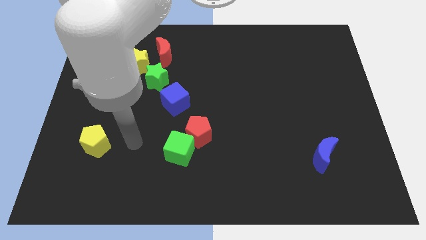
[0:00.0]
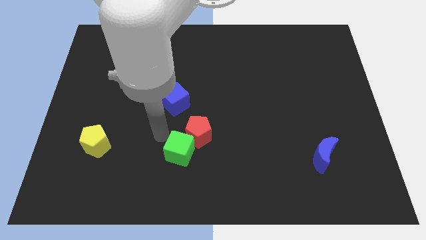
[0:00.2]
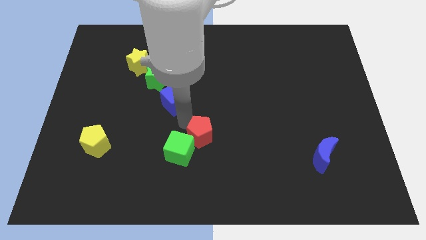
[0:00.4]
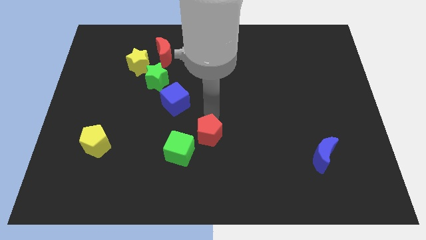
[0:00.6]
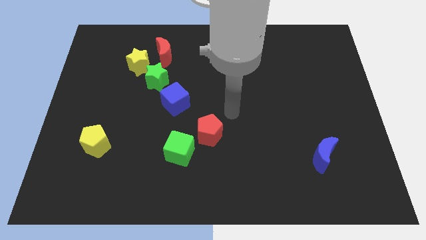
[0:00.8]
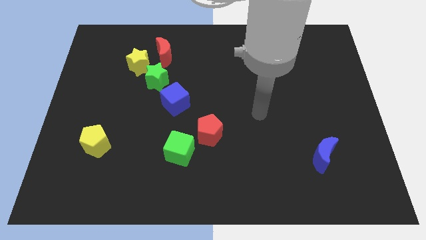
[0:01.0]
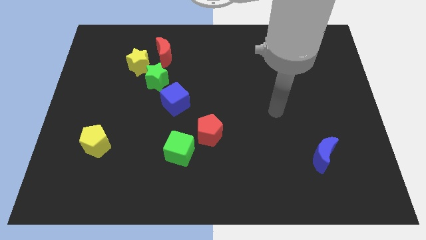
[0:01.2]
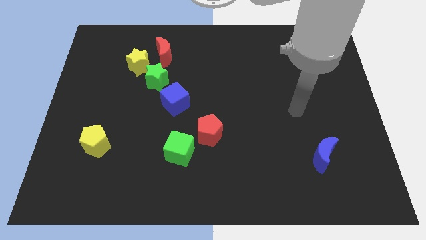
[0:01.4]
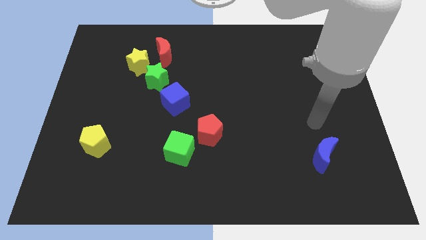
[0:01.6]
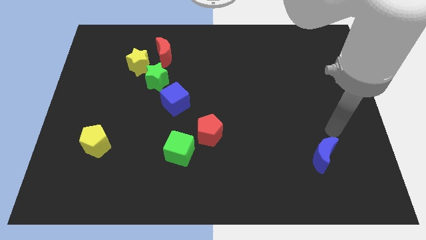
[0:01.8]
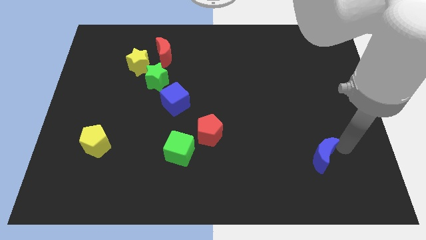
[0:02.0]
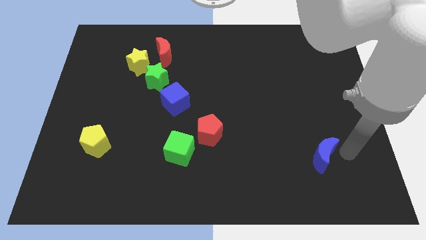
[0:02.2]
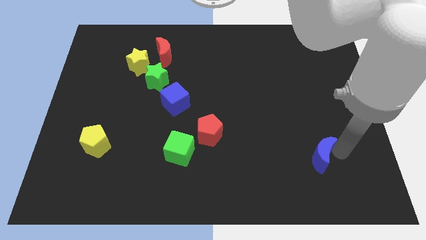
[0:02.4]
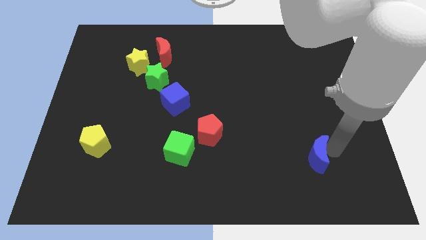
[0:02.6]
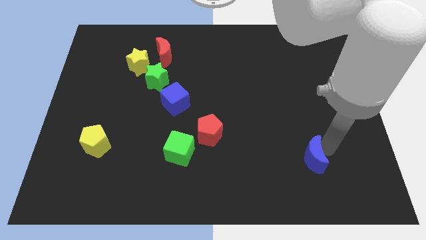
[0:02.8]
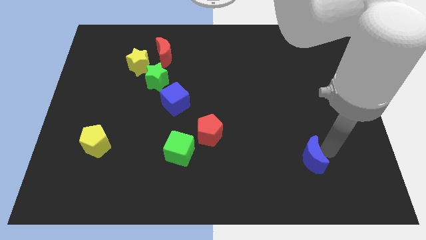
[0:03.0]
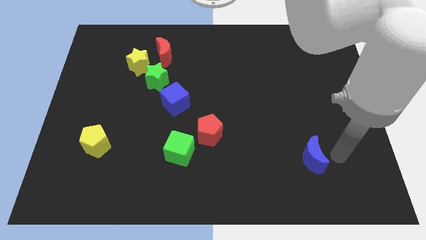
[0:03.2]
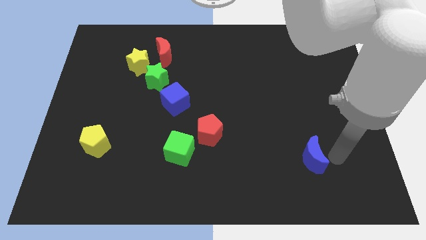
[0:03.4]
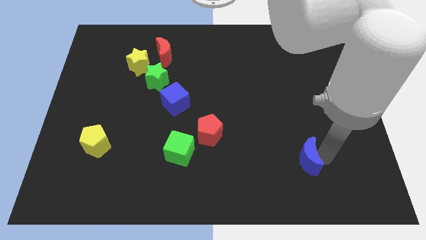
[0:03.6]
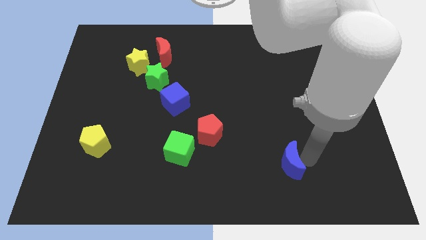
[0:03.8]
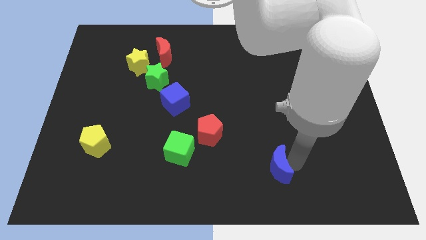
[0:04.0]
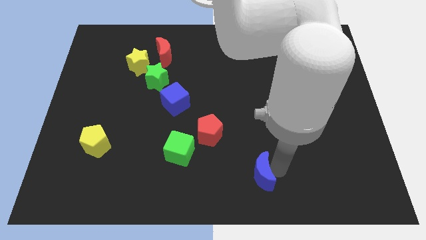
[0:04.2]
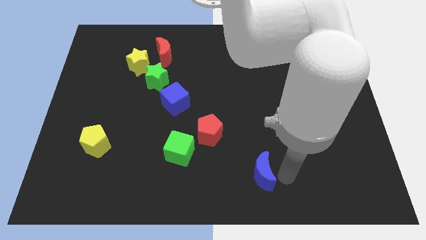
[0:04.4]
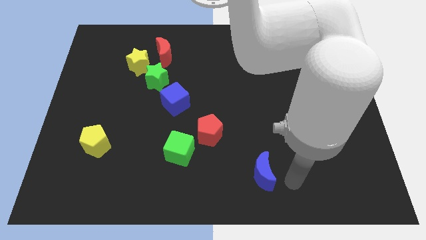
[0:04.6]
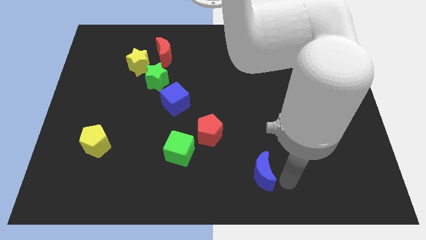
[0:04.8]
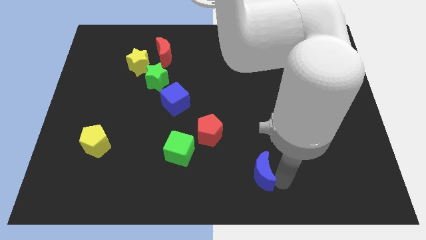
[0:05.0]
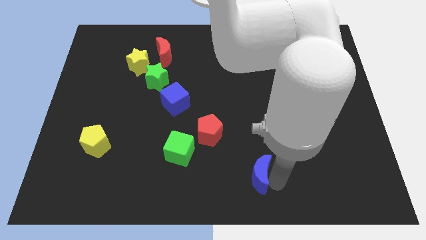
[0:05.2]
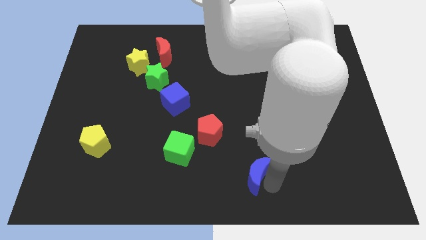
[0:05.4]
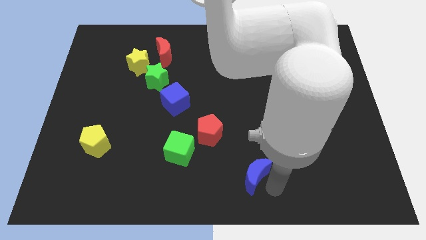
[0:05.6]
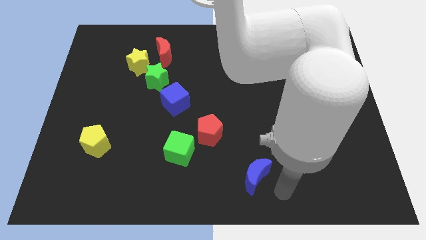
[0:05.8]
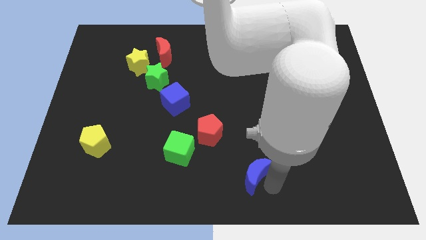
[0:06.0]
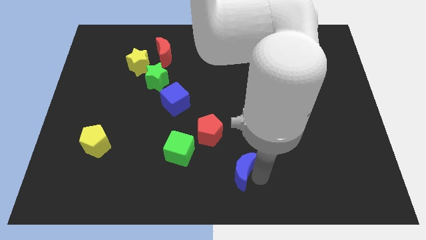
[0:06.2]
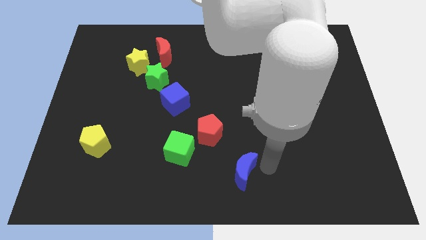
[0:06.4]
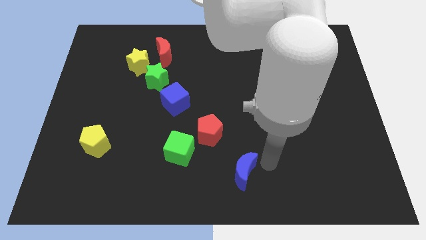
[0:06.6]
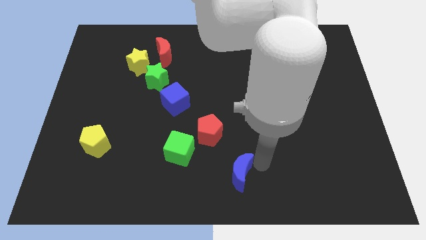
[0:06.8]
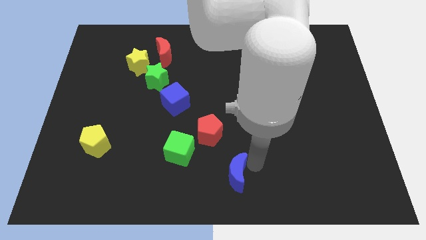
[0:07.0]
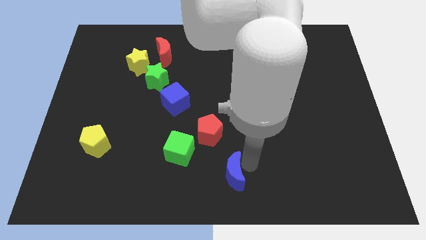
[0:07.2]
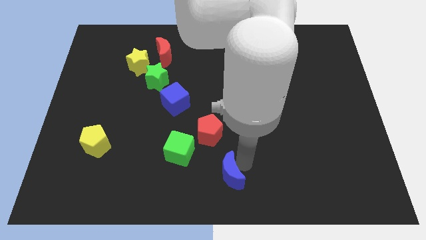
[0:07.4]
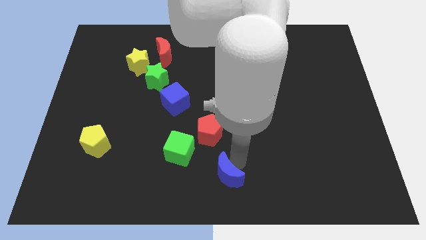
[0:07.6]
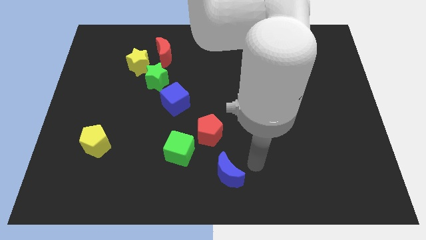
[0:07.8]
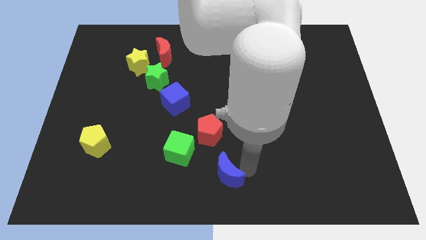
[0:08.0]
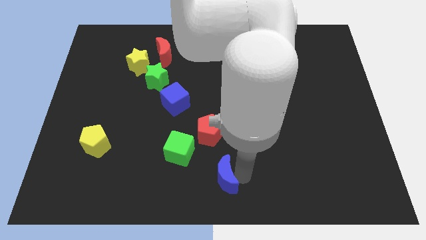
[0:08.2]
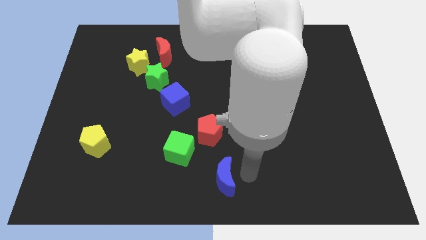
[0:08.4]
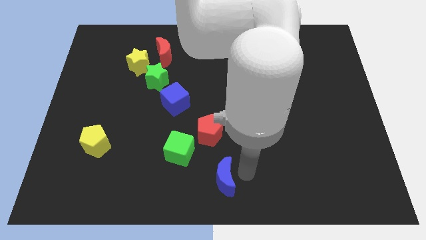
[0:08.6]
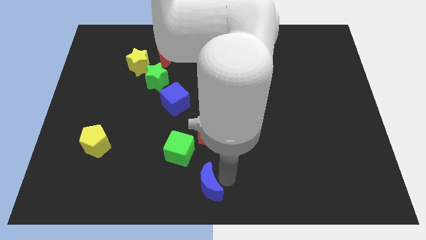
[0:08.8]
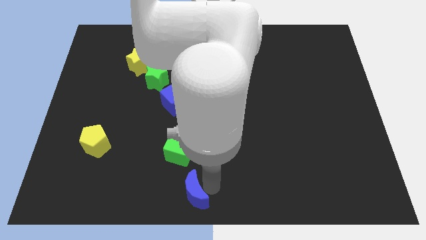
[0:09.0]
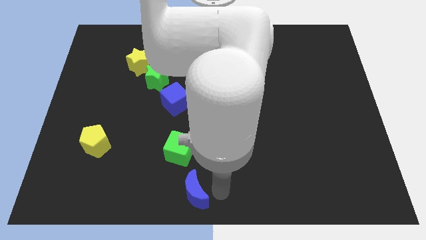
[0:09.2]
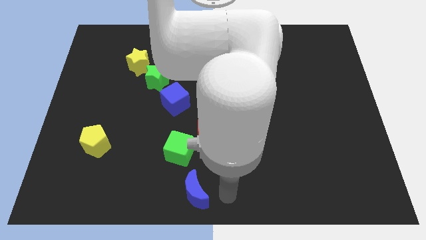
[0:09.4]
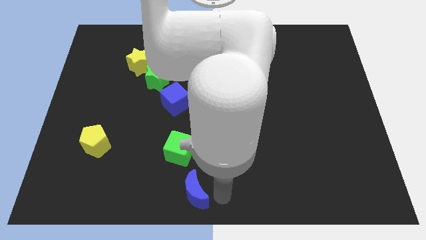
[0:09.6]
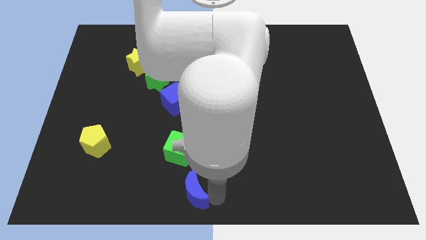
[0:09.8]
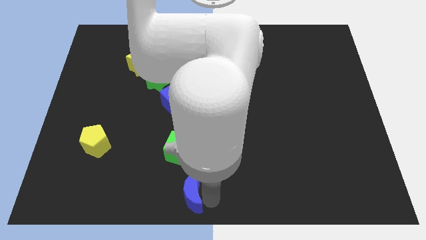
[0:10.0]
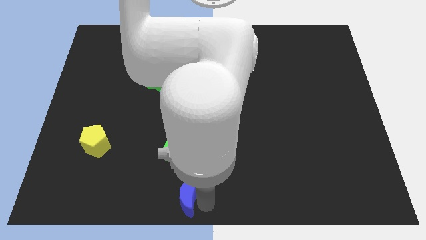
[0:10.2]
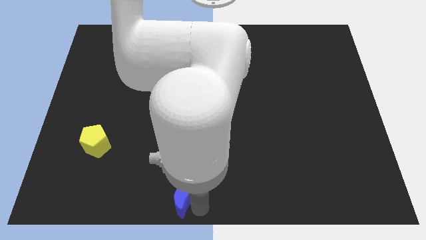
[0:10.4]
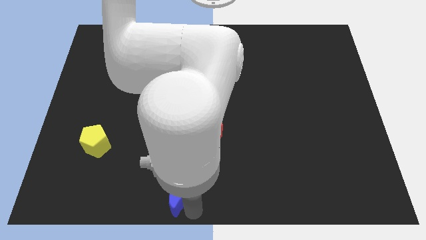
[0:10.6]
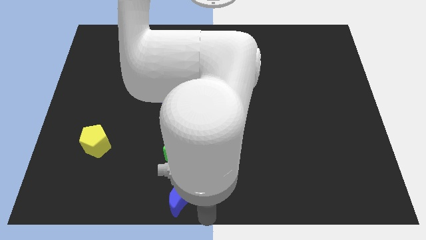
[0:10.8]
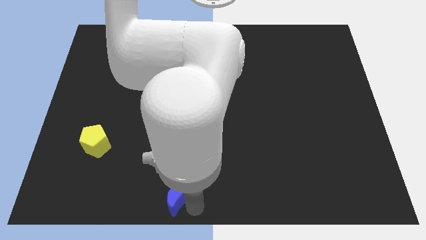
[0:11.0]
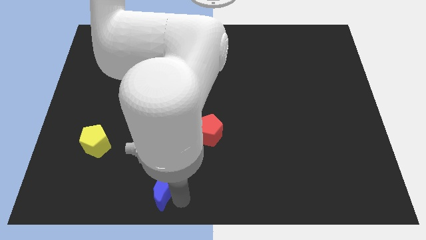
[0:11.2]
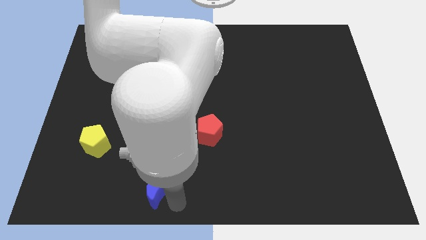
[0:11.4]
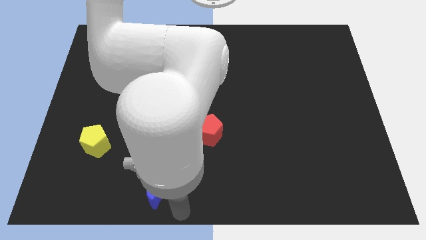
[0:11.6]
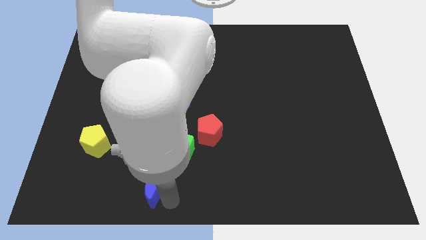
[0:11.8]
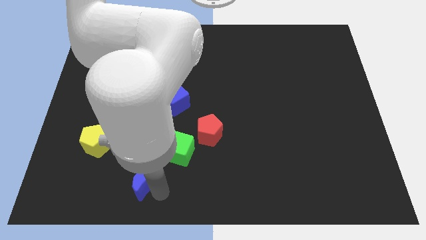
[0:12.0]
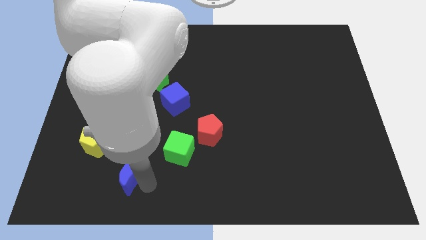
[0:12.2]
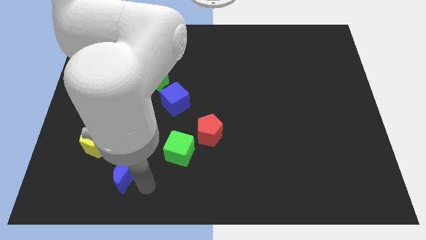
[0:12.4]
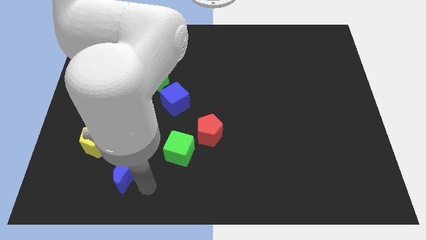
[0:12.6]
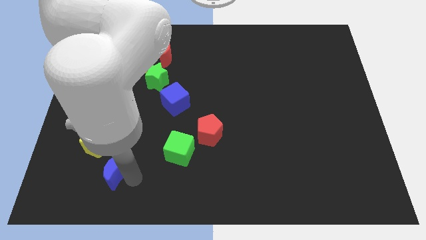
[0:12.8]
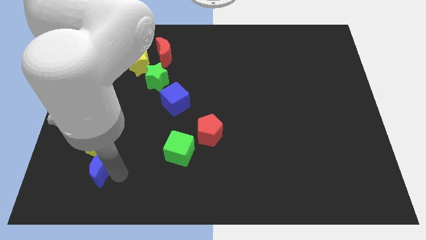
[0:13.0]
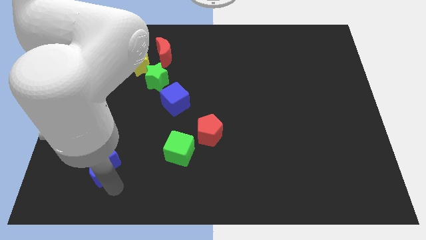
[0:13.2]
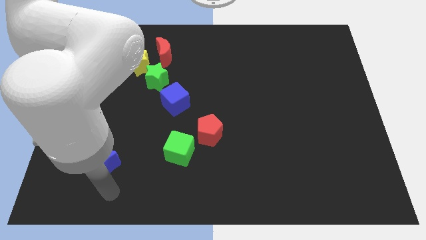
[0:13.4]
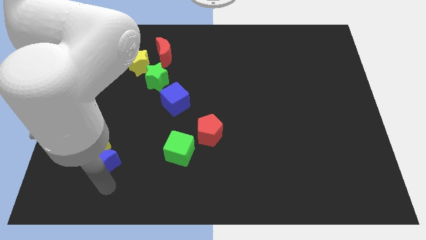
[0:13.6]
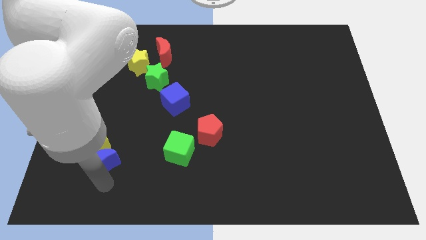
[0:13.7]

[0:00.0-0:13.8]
slide the blue moon next to the yellow pentagon
